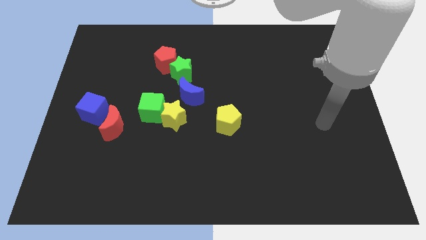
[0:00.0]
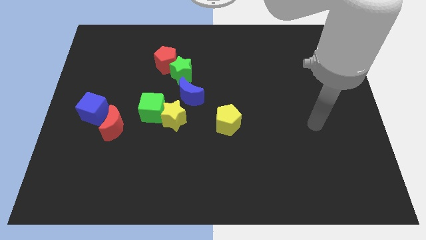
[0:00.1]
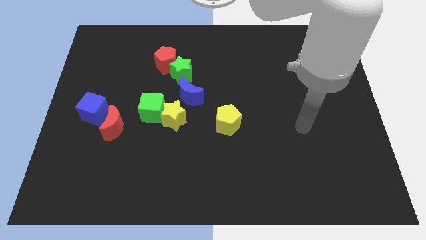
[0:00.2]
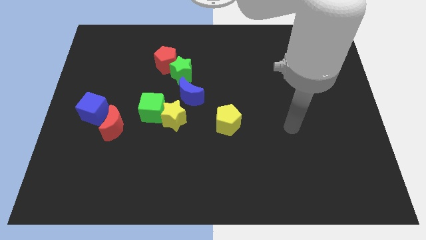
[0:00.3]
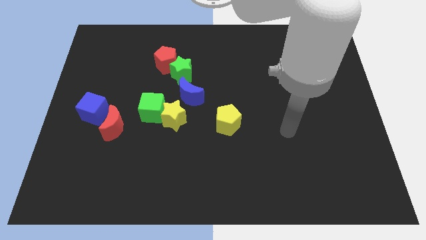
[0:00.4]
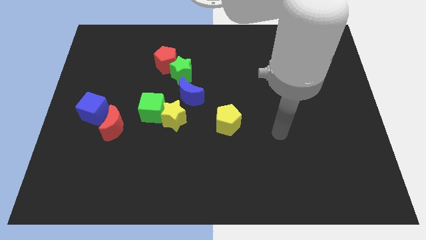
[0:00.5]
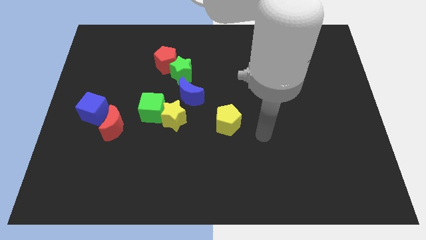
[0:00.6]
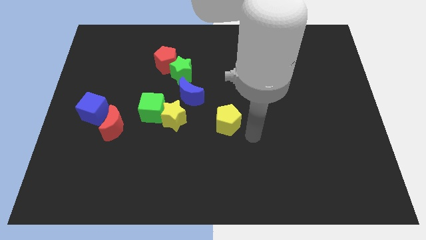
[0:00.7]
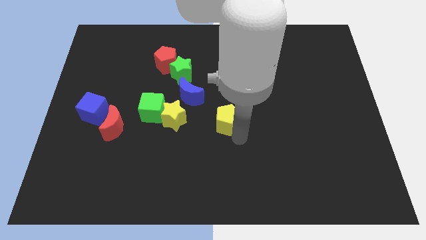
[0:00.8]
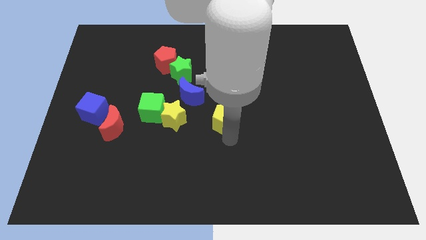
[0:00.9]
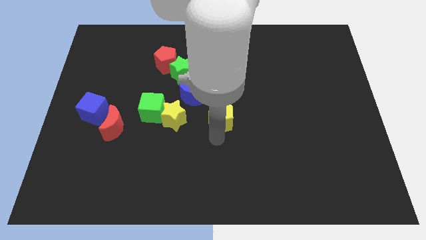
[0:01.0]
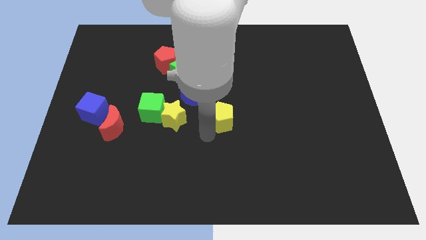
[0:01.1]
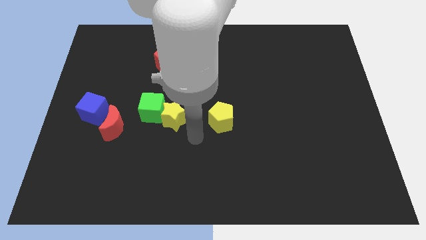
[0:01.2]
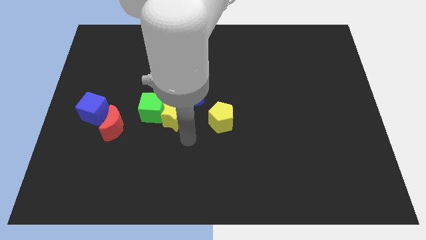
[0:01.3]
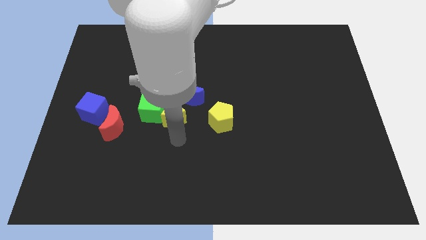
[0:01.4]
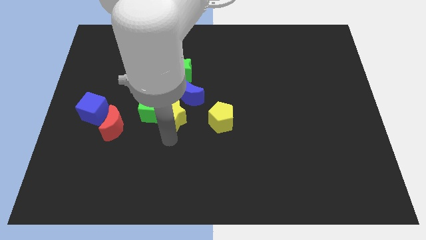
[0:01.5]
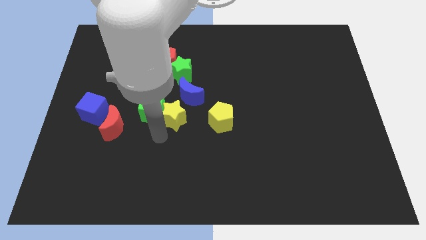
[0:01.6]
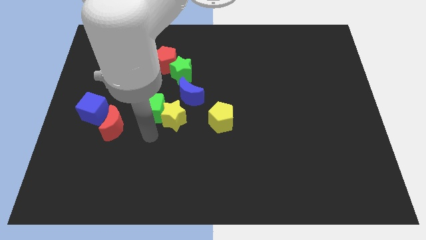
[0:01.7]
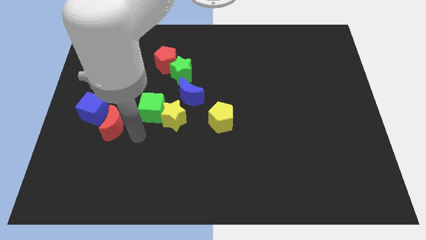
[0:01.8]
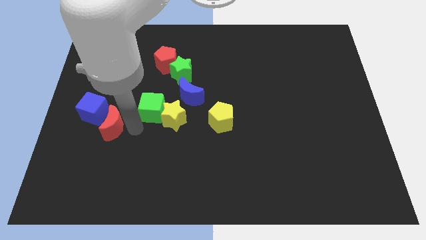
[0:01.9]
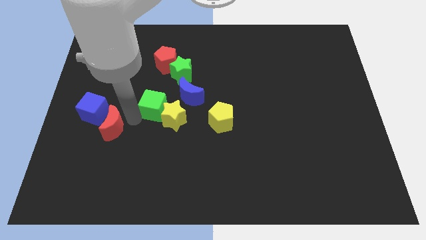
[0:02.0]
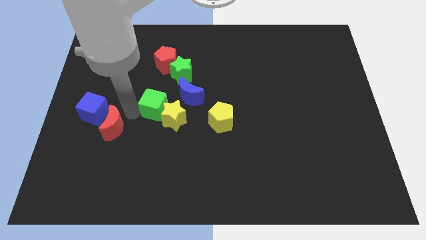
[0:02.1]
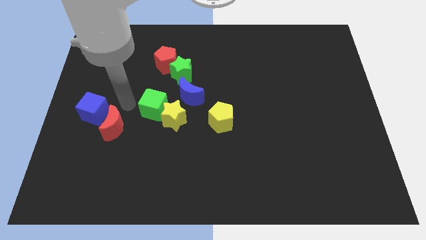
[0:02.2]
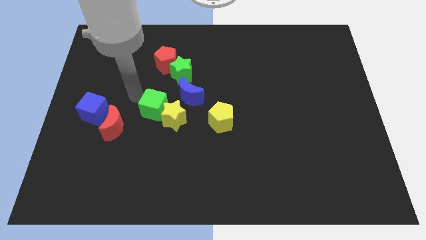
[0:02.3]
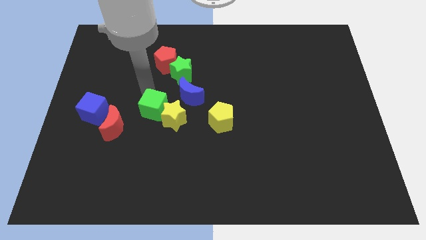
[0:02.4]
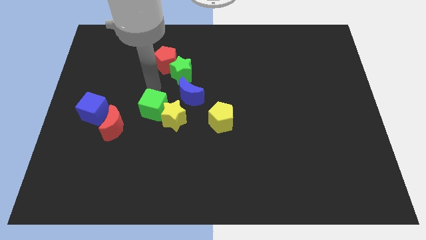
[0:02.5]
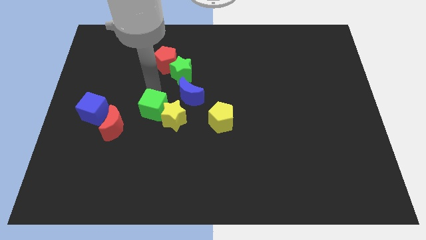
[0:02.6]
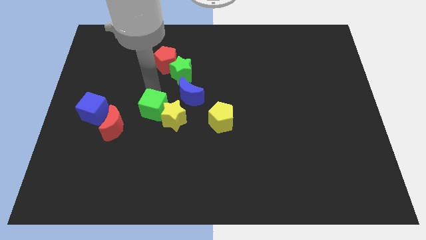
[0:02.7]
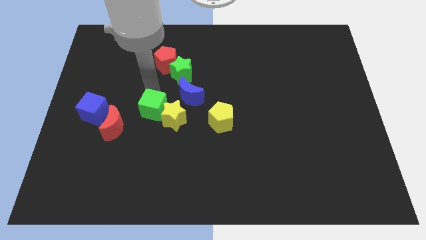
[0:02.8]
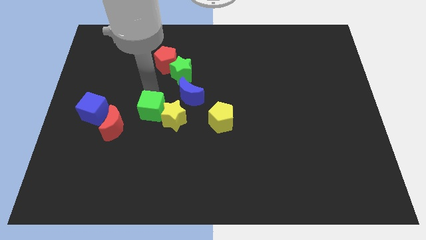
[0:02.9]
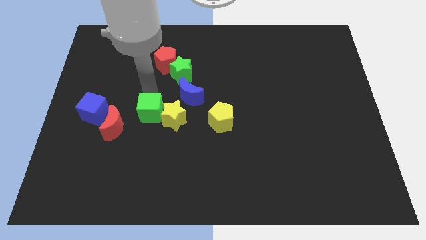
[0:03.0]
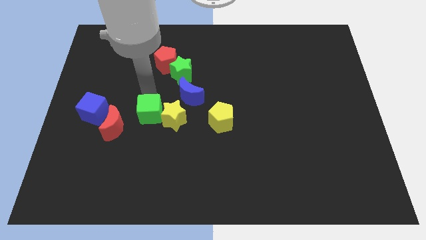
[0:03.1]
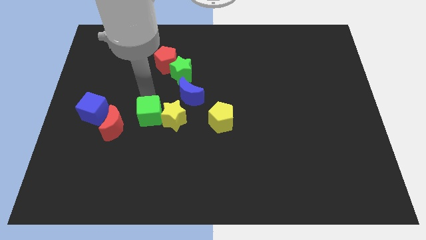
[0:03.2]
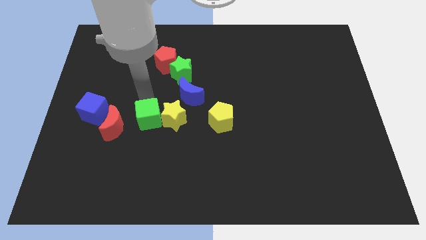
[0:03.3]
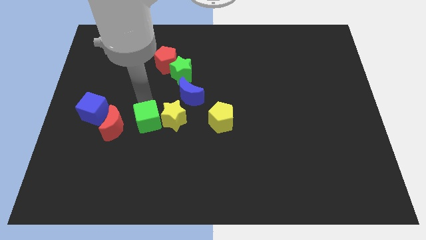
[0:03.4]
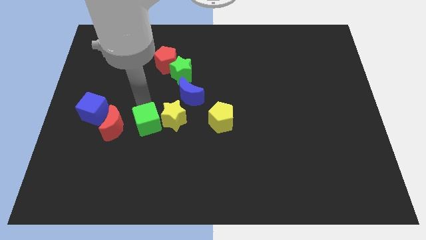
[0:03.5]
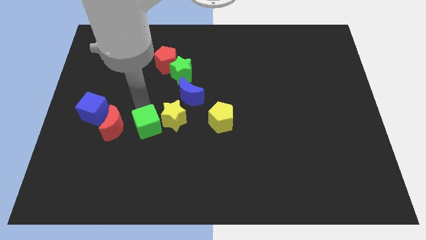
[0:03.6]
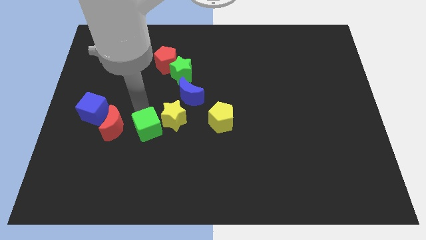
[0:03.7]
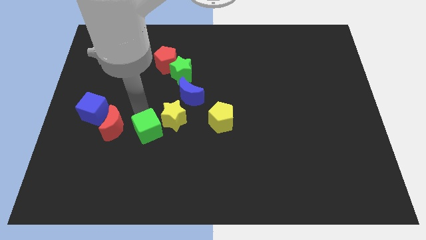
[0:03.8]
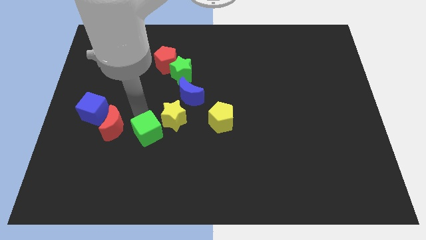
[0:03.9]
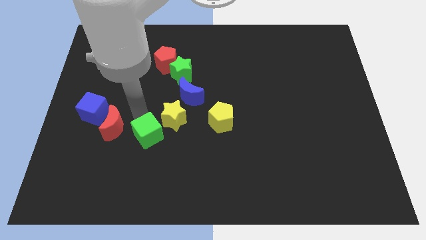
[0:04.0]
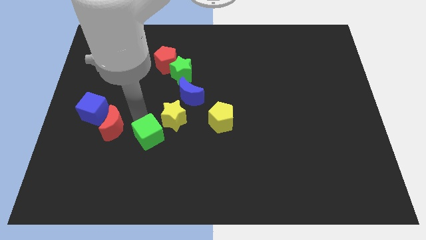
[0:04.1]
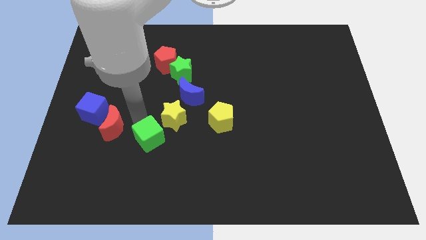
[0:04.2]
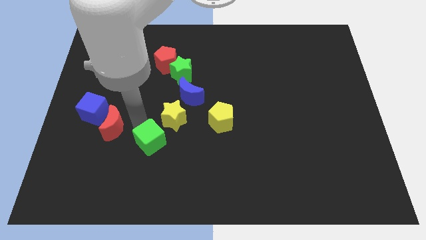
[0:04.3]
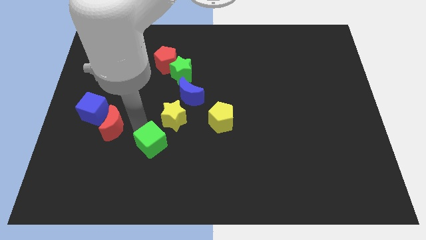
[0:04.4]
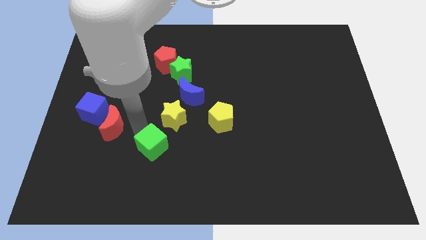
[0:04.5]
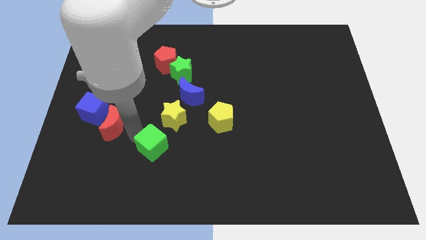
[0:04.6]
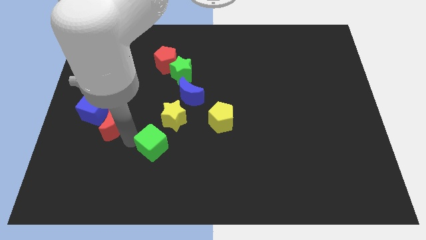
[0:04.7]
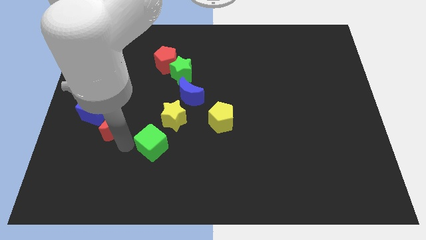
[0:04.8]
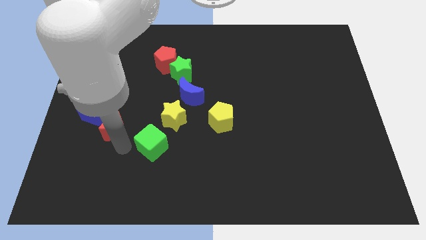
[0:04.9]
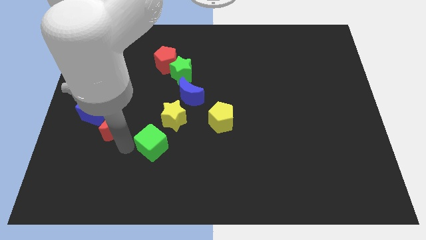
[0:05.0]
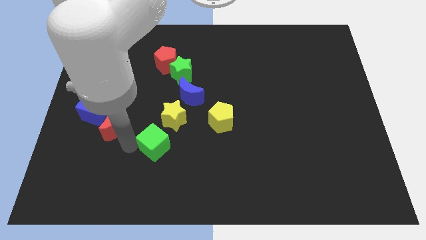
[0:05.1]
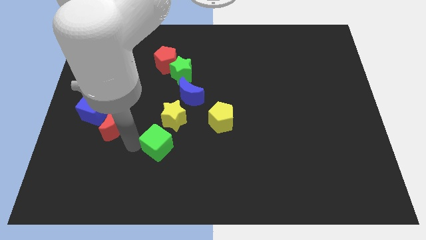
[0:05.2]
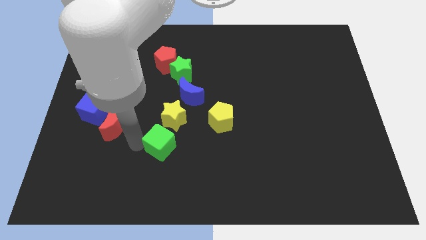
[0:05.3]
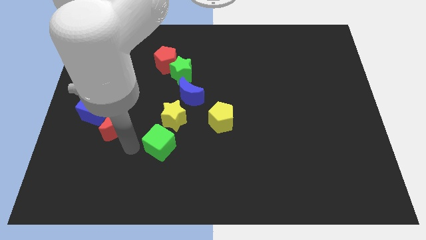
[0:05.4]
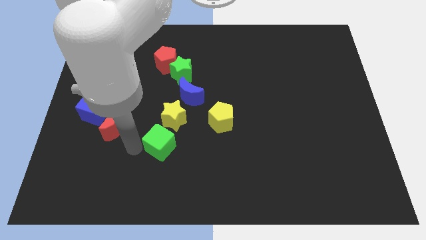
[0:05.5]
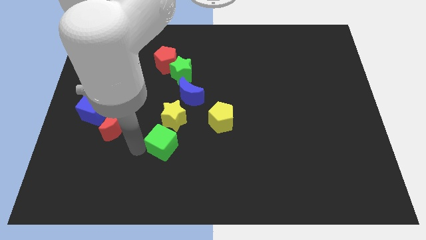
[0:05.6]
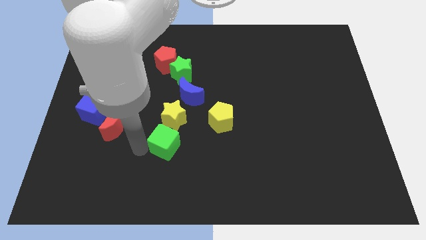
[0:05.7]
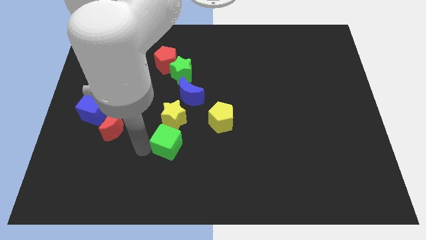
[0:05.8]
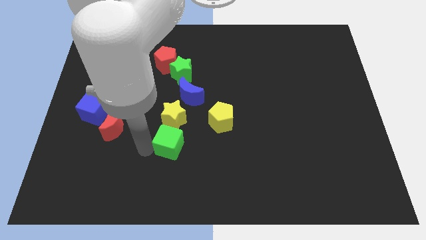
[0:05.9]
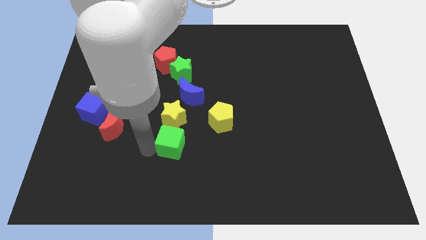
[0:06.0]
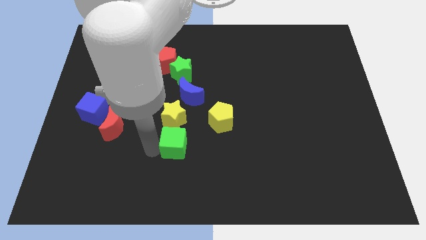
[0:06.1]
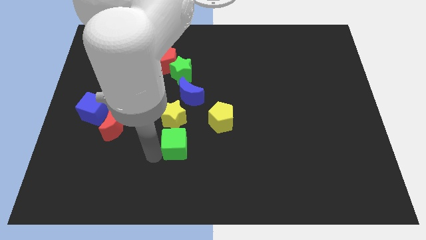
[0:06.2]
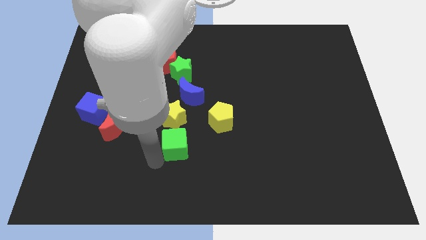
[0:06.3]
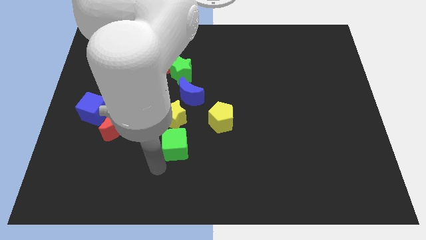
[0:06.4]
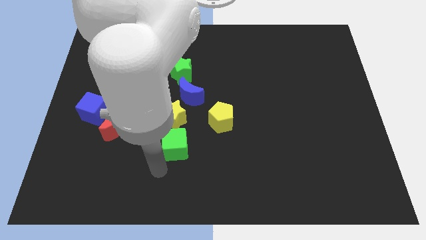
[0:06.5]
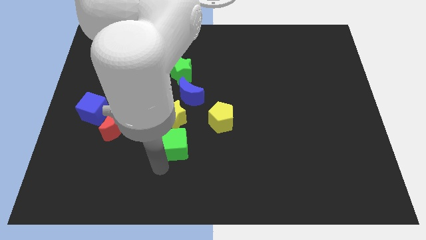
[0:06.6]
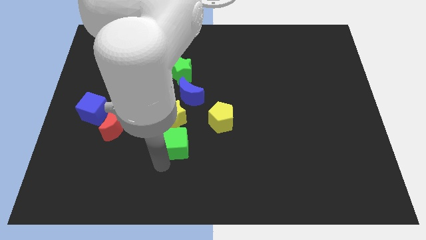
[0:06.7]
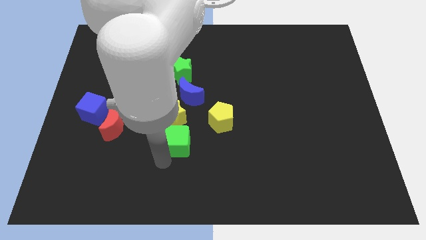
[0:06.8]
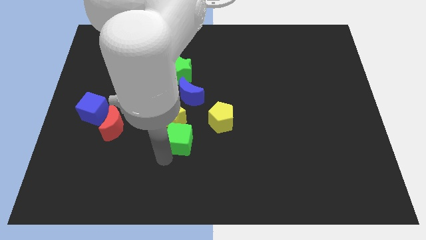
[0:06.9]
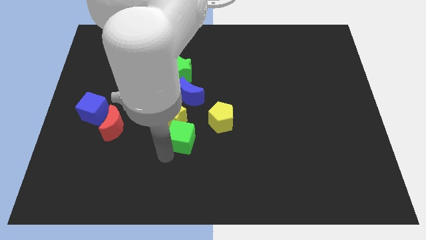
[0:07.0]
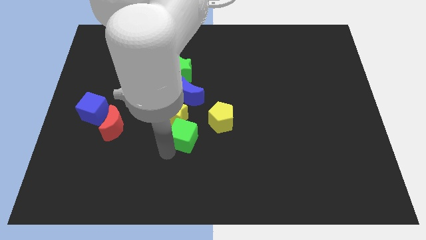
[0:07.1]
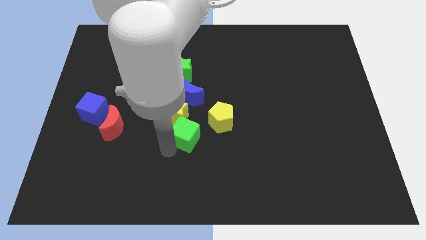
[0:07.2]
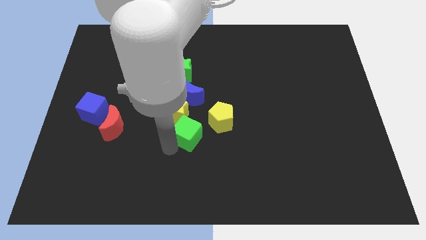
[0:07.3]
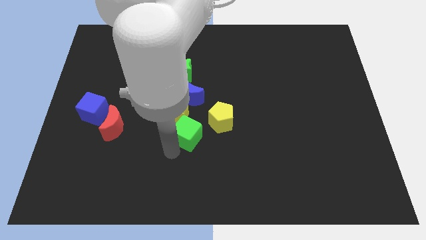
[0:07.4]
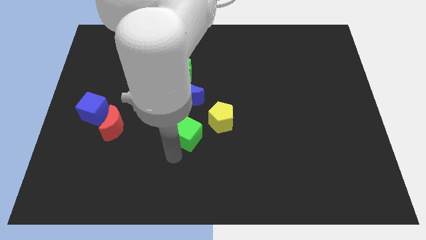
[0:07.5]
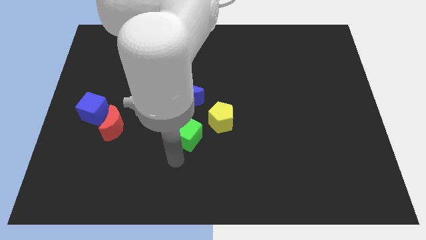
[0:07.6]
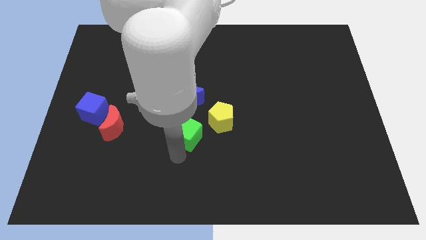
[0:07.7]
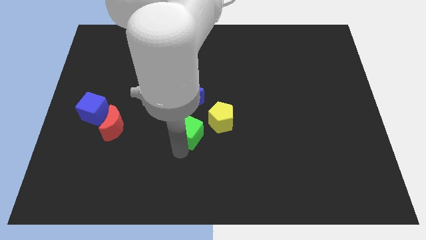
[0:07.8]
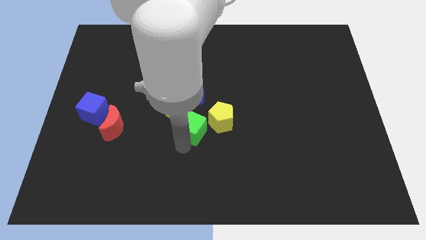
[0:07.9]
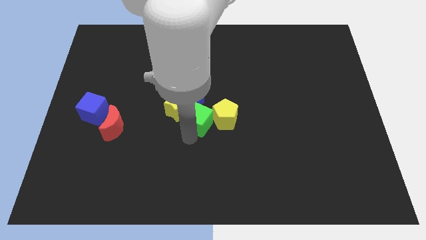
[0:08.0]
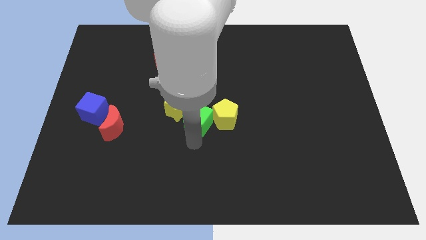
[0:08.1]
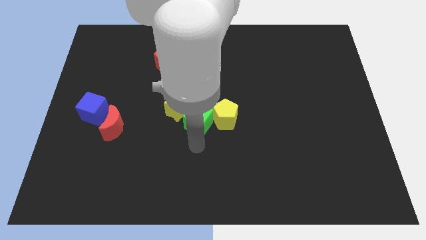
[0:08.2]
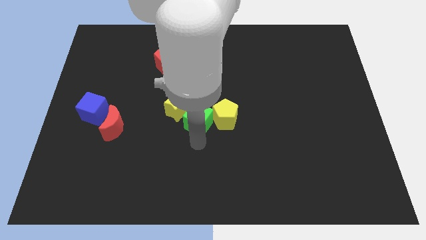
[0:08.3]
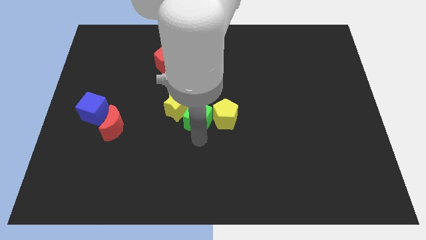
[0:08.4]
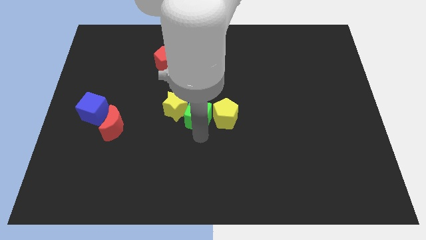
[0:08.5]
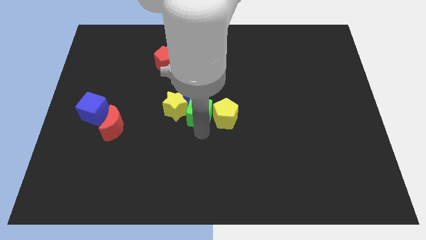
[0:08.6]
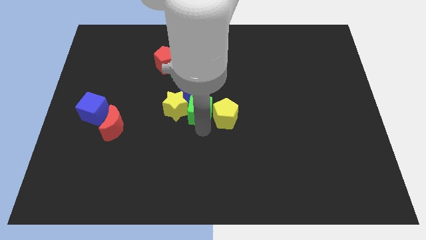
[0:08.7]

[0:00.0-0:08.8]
push the green cube to the top right side of the yellow star
